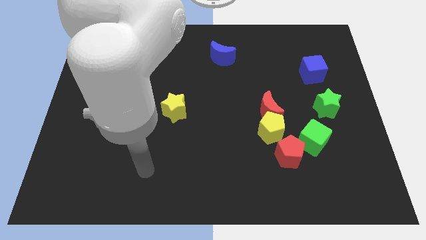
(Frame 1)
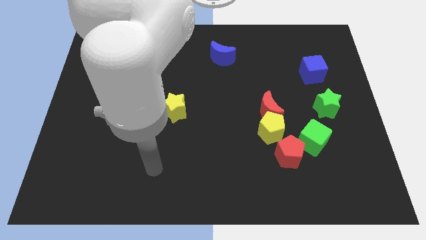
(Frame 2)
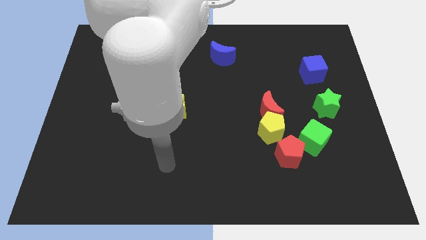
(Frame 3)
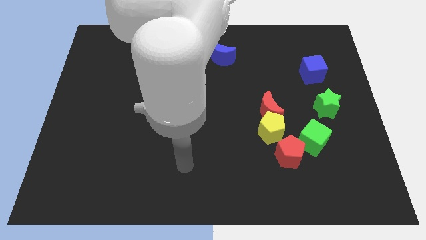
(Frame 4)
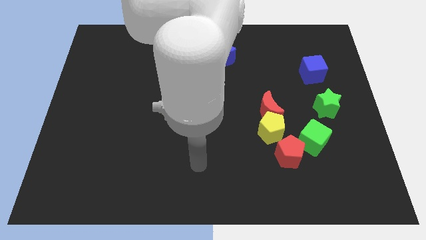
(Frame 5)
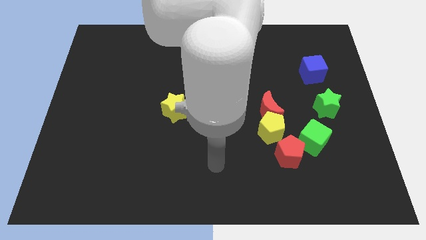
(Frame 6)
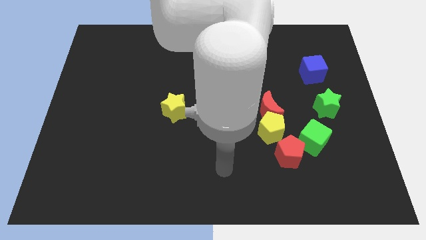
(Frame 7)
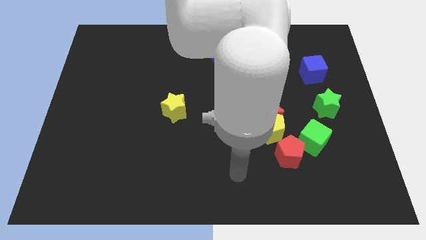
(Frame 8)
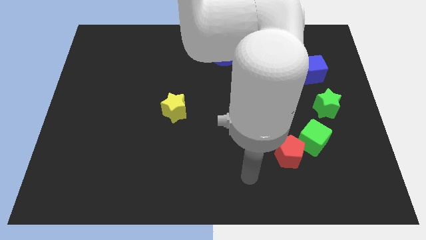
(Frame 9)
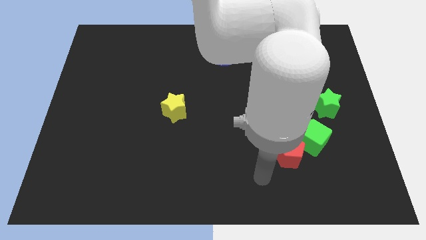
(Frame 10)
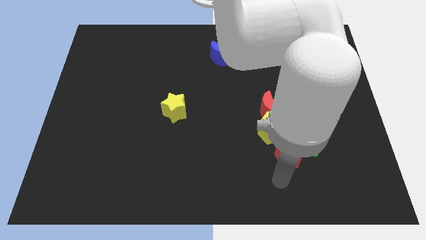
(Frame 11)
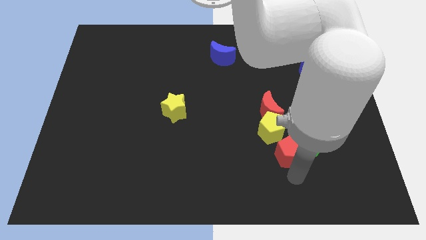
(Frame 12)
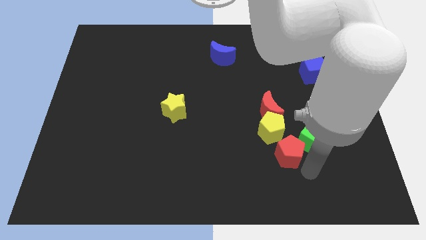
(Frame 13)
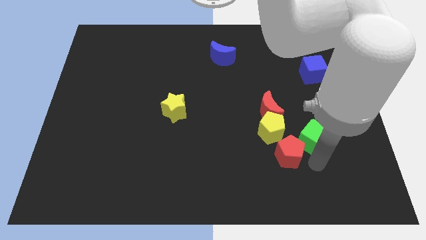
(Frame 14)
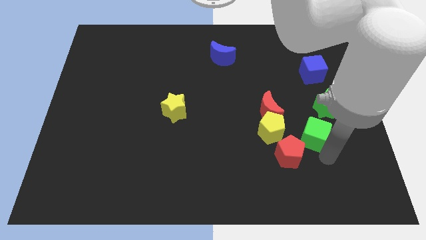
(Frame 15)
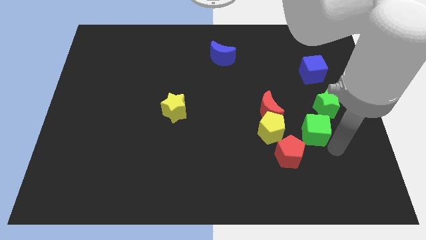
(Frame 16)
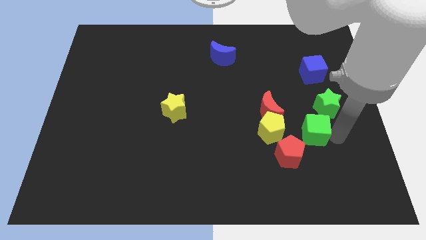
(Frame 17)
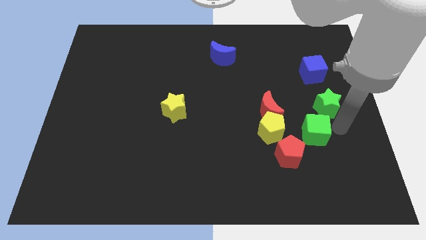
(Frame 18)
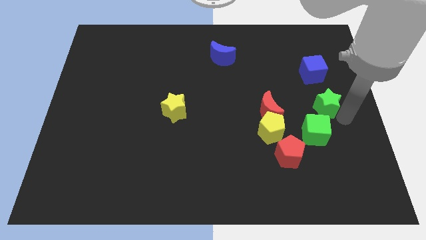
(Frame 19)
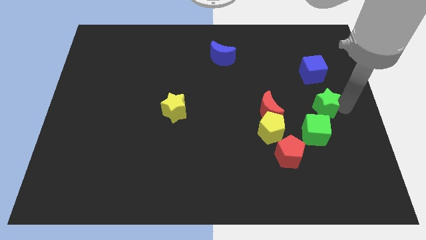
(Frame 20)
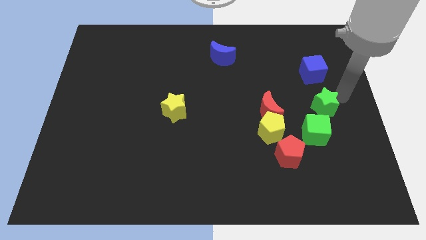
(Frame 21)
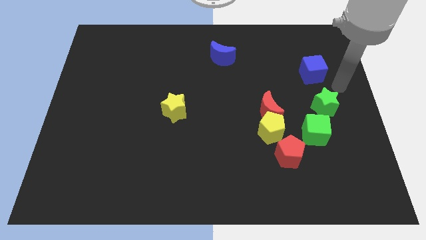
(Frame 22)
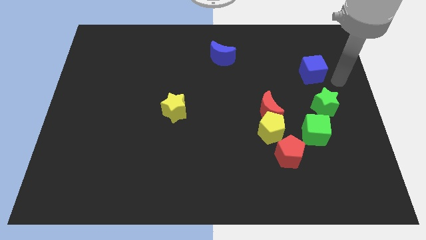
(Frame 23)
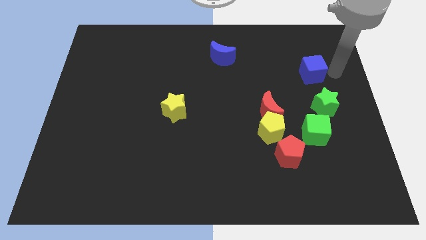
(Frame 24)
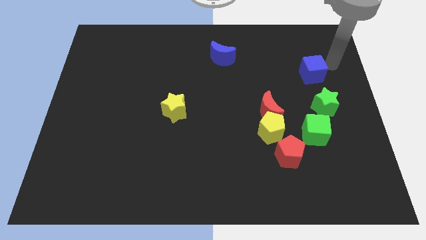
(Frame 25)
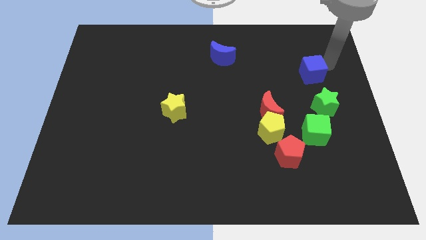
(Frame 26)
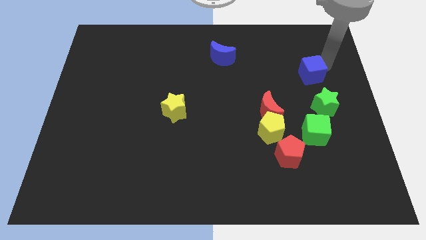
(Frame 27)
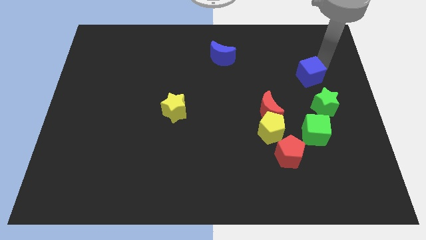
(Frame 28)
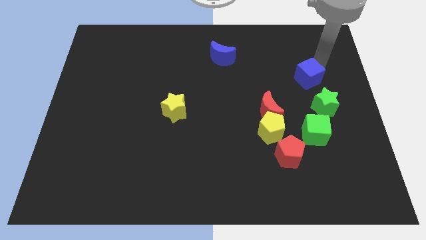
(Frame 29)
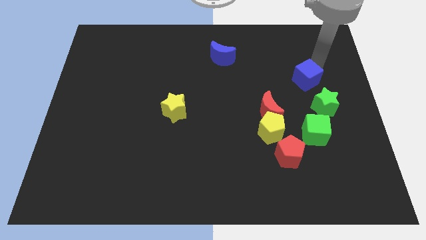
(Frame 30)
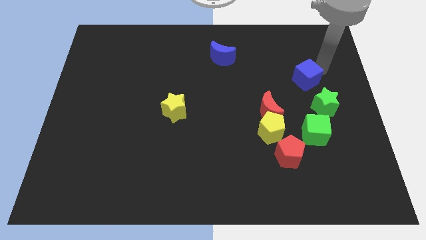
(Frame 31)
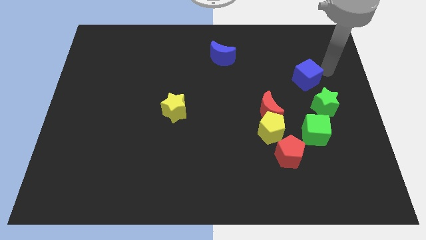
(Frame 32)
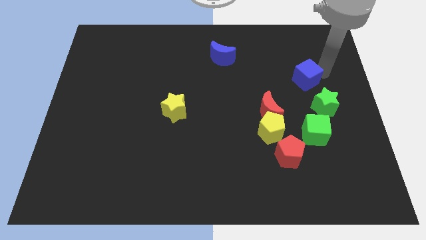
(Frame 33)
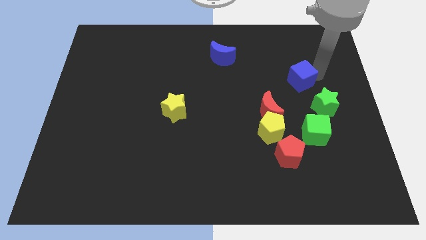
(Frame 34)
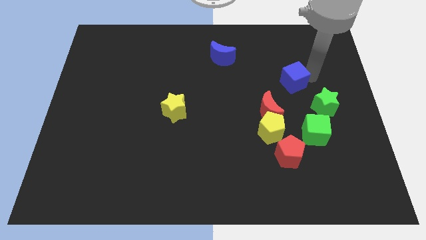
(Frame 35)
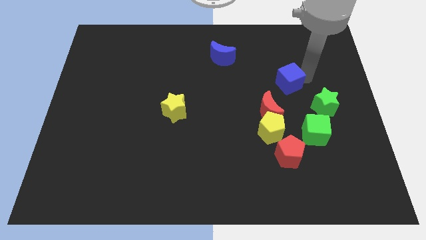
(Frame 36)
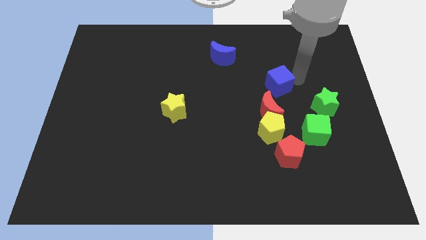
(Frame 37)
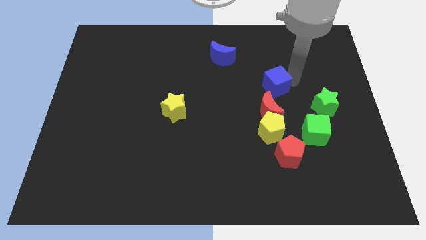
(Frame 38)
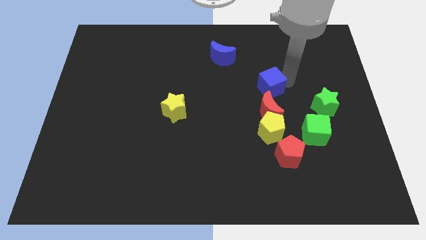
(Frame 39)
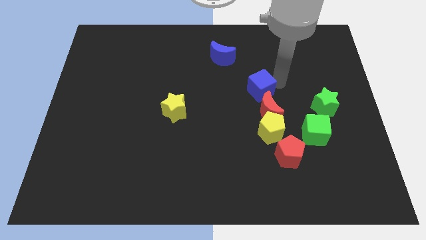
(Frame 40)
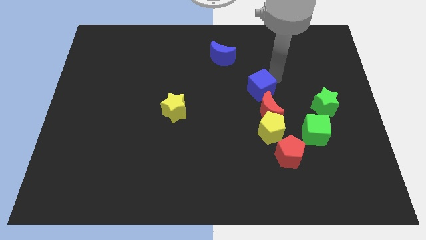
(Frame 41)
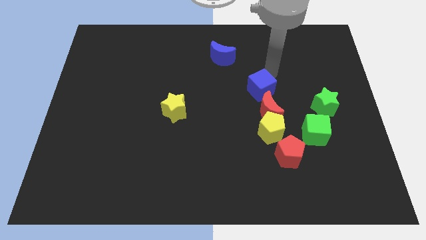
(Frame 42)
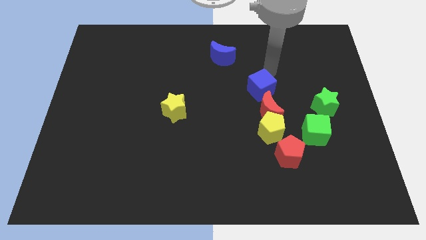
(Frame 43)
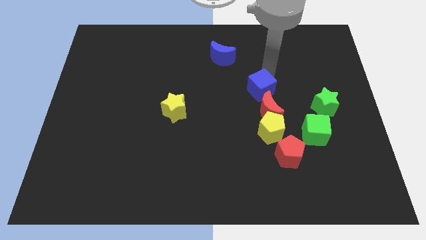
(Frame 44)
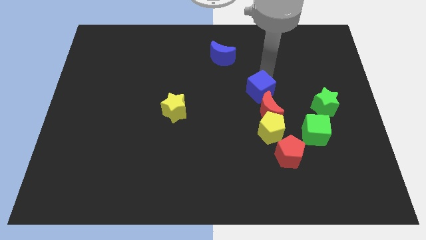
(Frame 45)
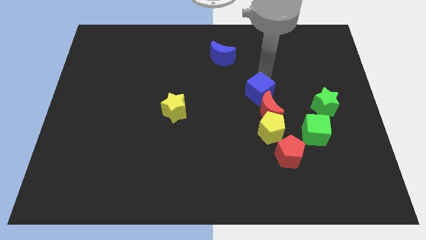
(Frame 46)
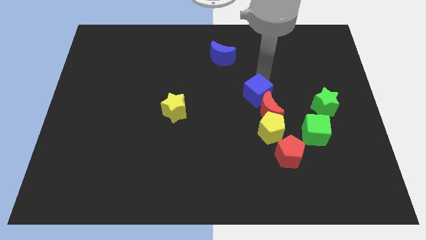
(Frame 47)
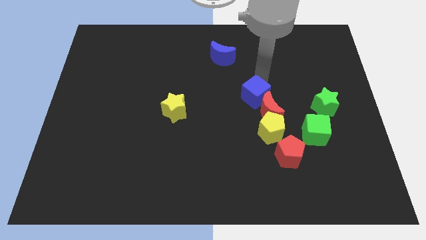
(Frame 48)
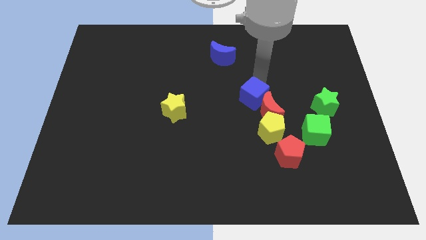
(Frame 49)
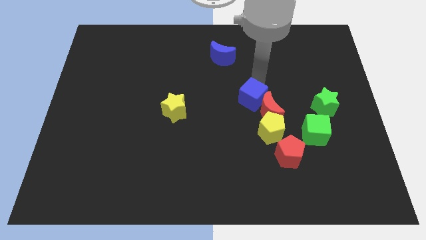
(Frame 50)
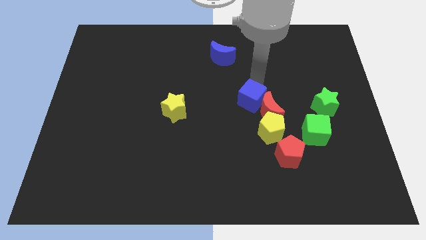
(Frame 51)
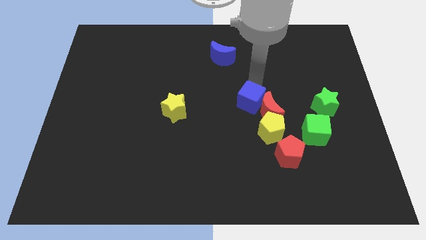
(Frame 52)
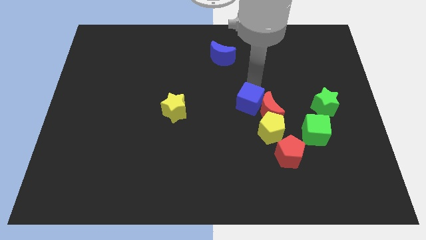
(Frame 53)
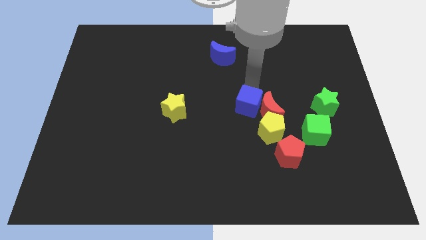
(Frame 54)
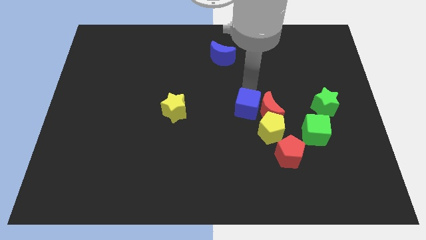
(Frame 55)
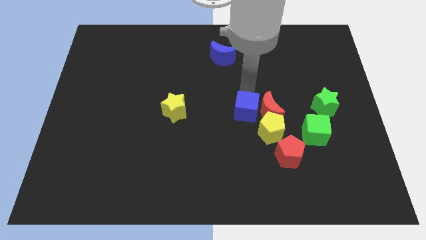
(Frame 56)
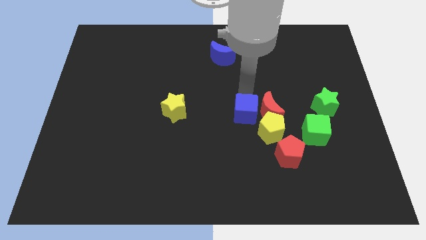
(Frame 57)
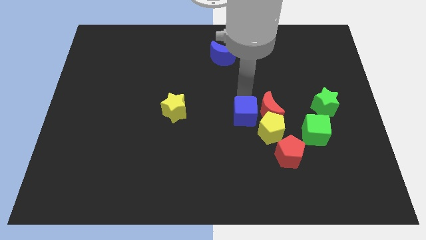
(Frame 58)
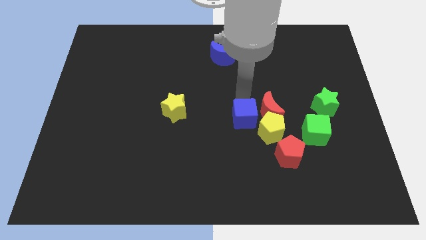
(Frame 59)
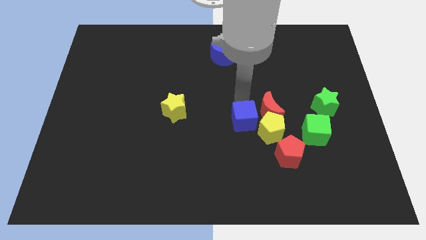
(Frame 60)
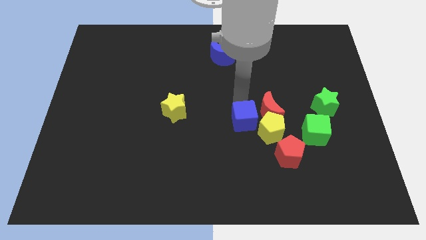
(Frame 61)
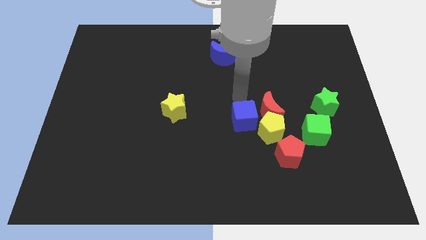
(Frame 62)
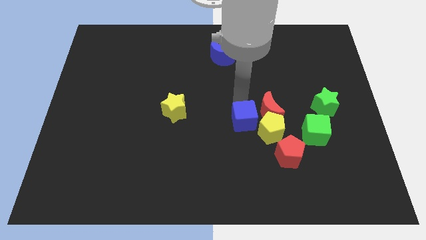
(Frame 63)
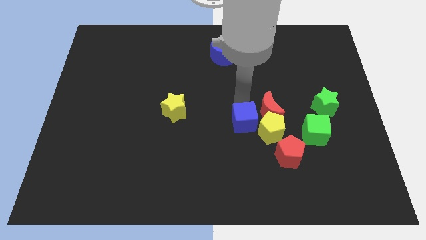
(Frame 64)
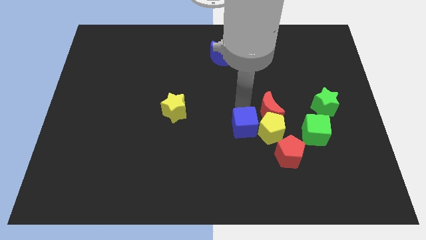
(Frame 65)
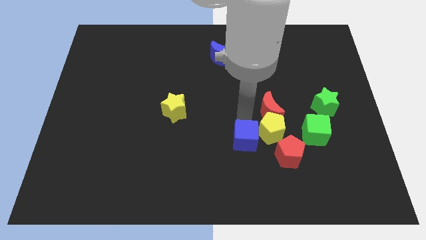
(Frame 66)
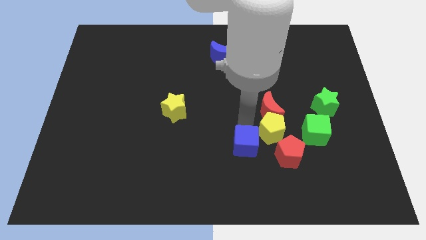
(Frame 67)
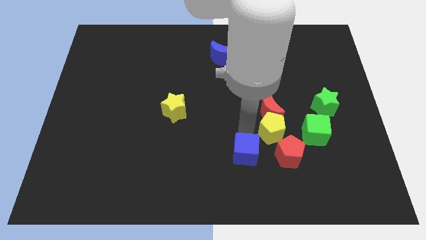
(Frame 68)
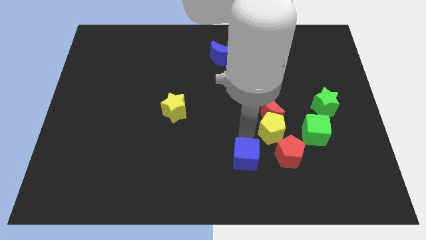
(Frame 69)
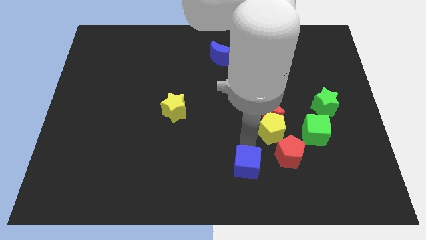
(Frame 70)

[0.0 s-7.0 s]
move the blue cube to the bottom side

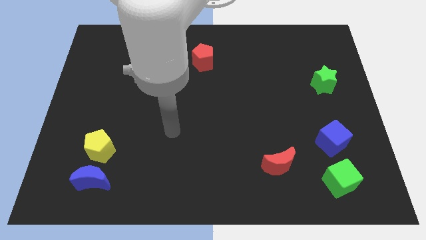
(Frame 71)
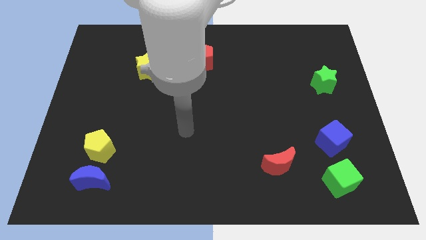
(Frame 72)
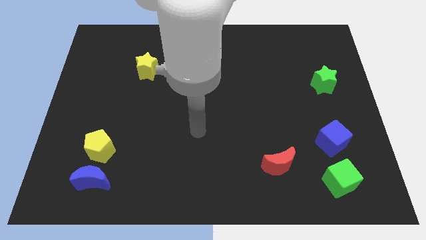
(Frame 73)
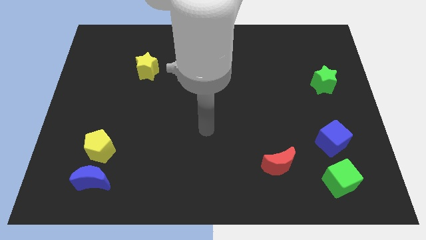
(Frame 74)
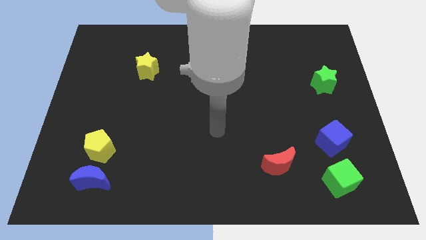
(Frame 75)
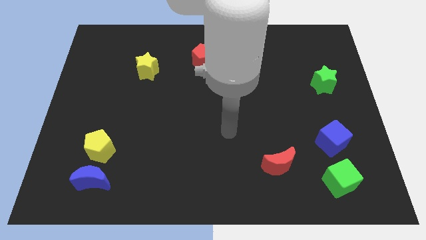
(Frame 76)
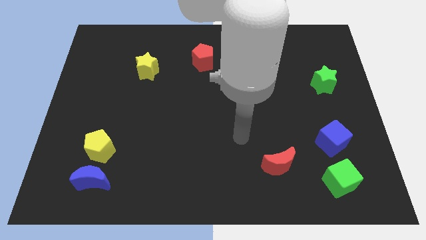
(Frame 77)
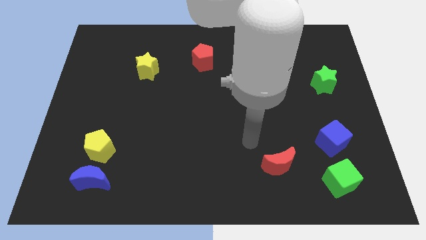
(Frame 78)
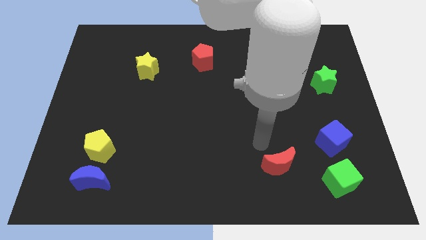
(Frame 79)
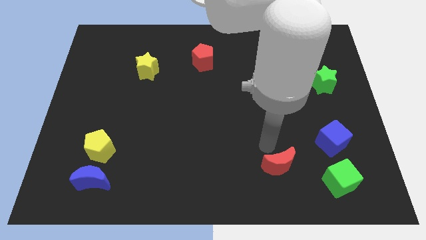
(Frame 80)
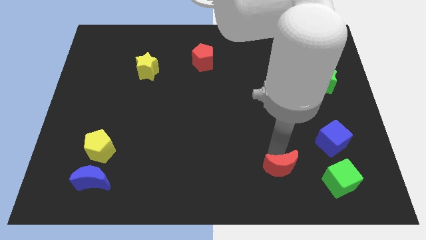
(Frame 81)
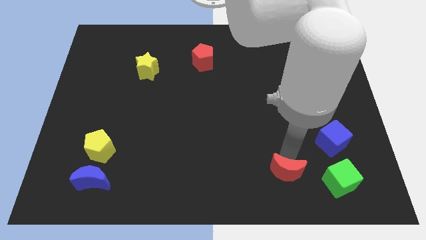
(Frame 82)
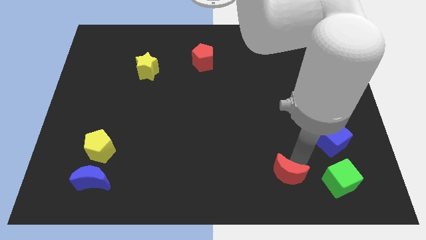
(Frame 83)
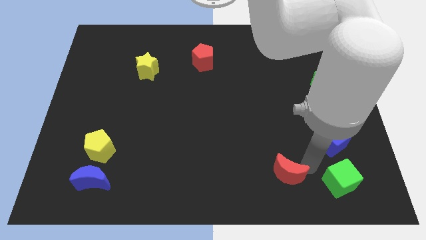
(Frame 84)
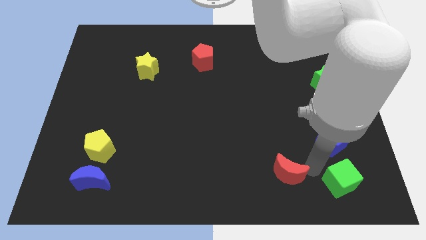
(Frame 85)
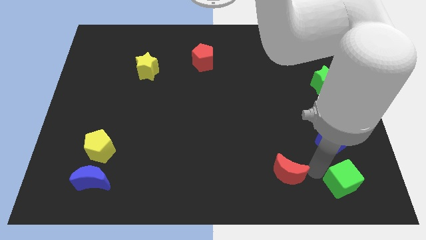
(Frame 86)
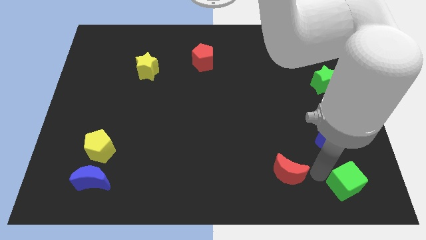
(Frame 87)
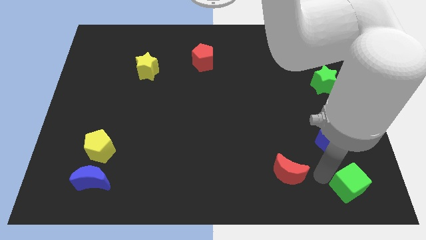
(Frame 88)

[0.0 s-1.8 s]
move the green cube to the bottom right of the board
